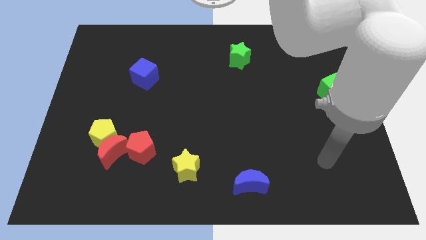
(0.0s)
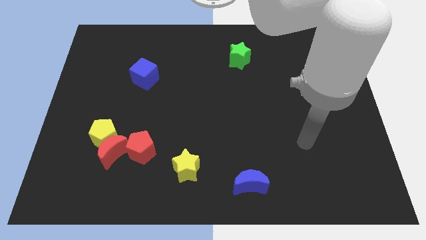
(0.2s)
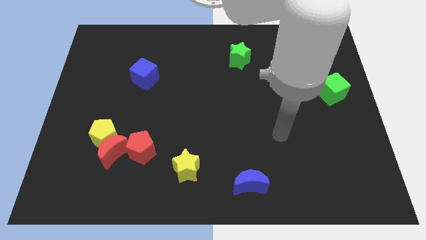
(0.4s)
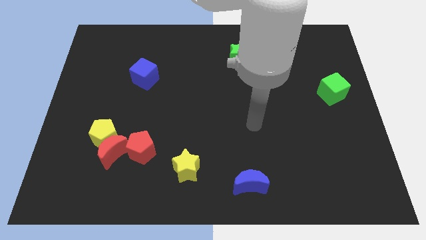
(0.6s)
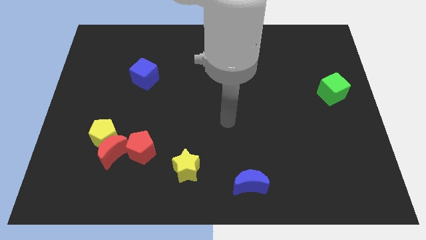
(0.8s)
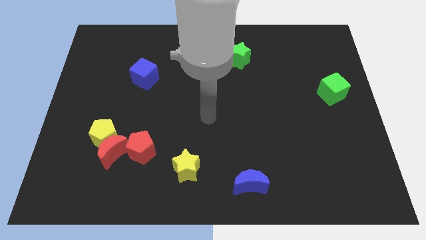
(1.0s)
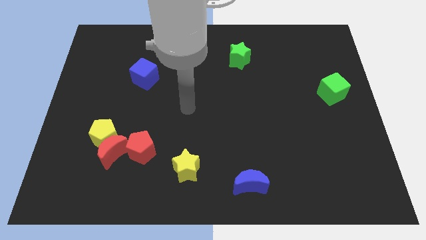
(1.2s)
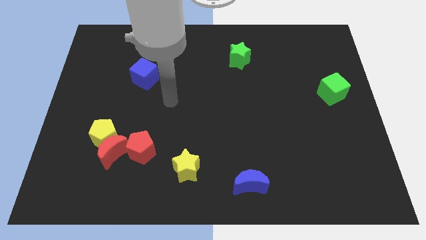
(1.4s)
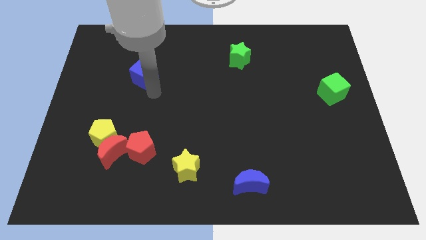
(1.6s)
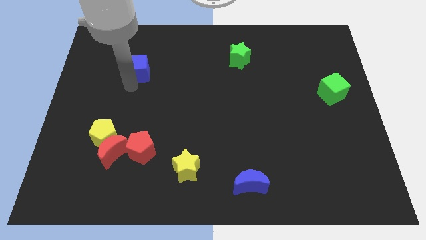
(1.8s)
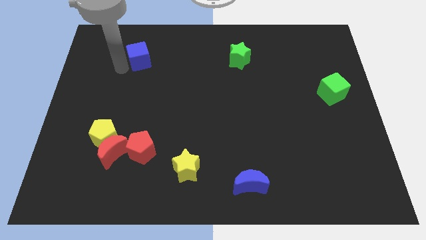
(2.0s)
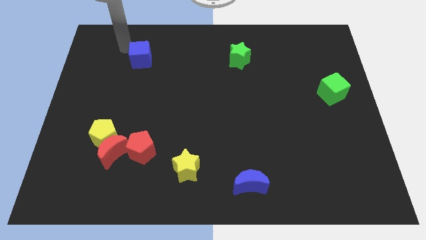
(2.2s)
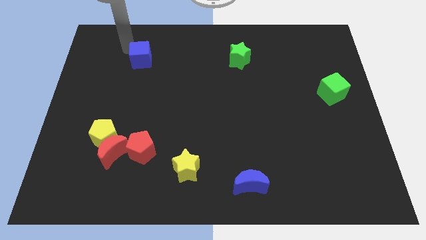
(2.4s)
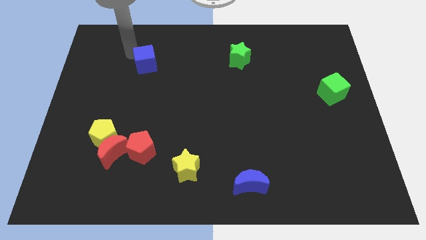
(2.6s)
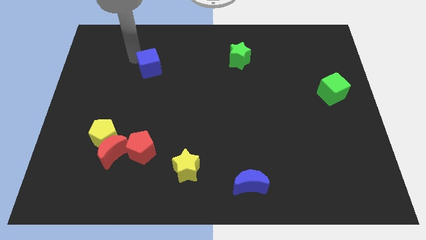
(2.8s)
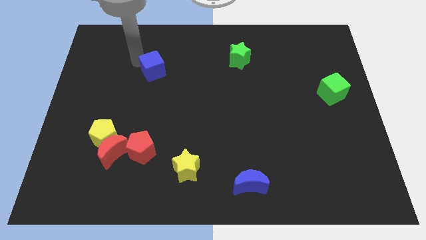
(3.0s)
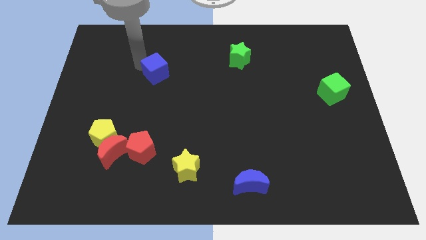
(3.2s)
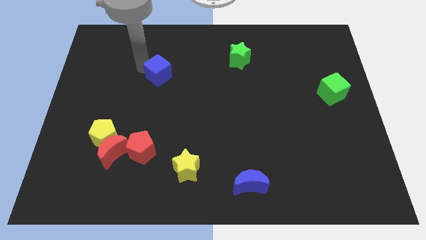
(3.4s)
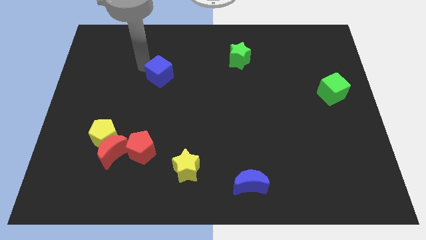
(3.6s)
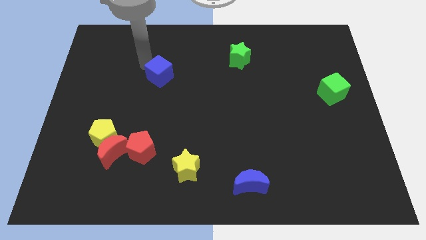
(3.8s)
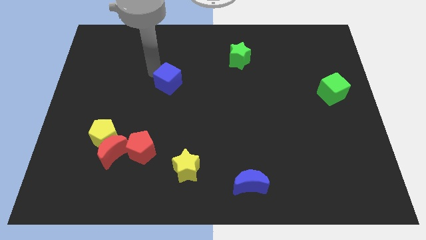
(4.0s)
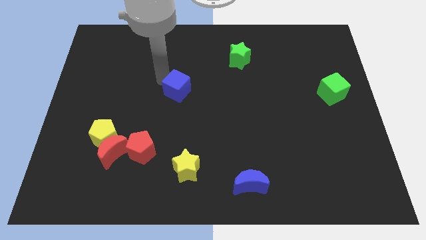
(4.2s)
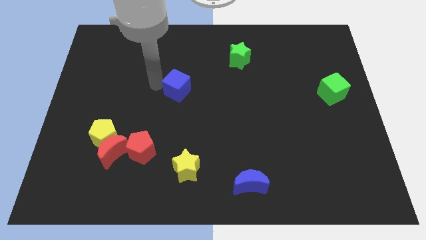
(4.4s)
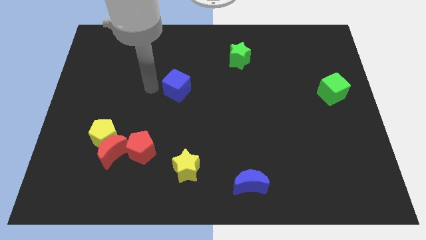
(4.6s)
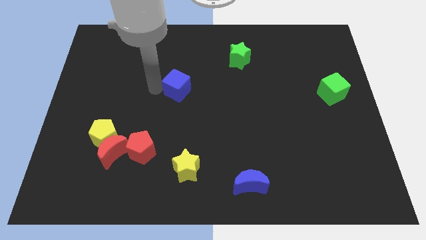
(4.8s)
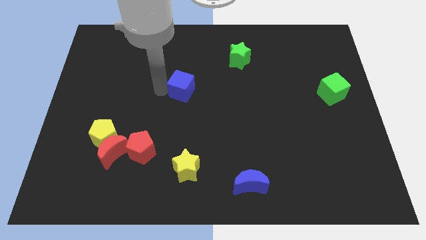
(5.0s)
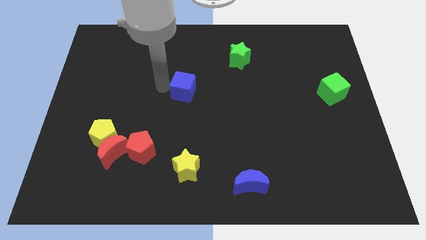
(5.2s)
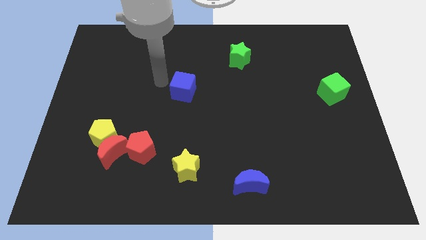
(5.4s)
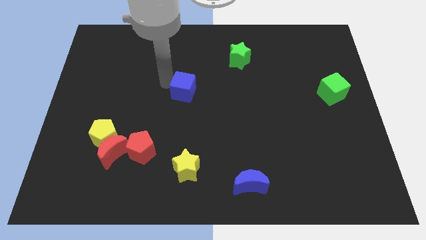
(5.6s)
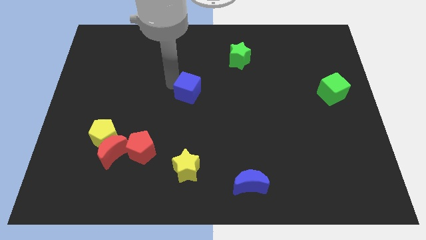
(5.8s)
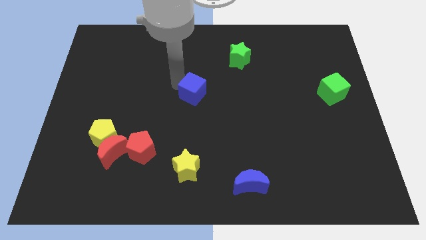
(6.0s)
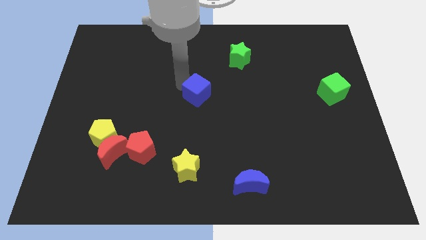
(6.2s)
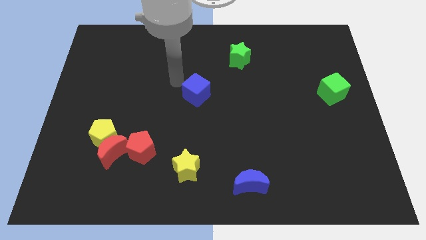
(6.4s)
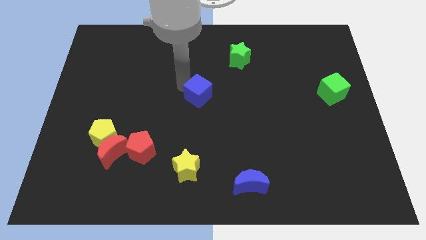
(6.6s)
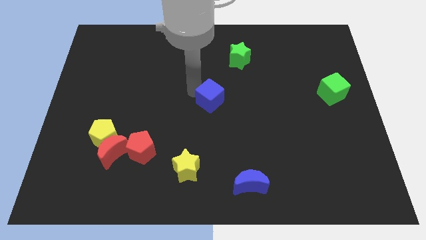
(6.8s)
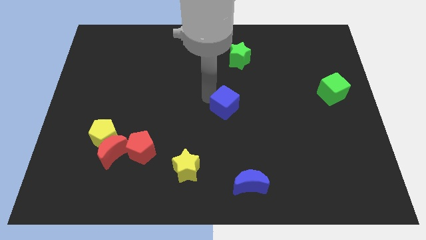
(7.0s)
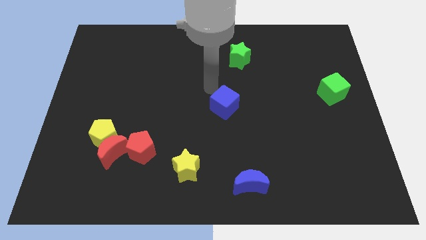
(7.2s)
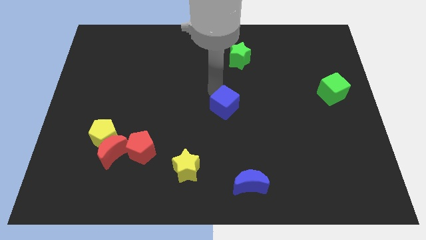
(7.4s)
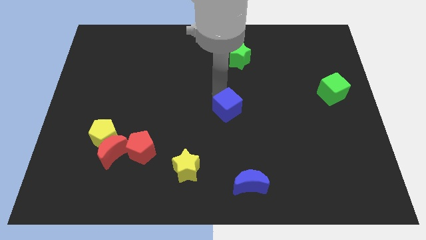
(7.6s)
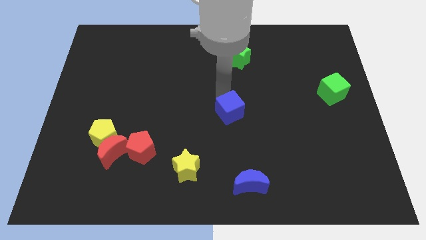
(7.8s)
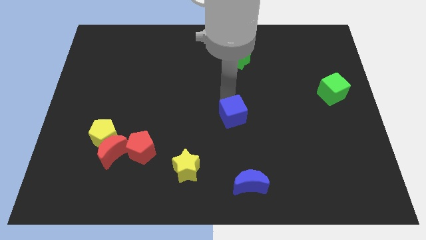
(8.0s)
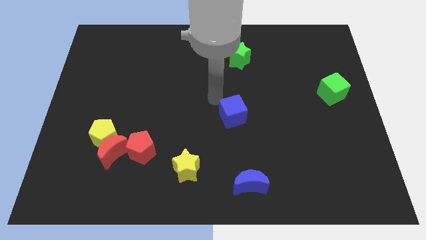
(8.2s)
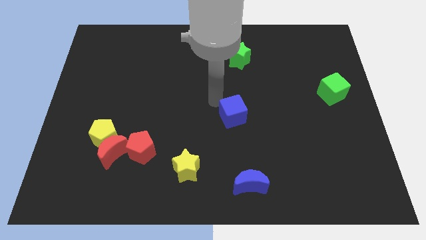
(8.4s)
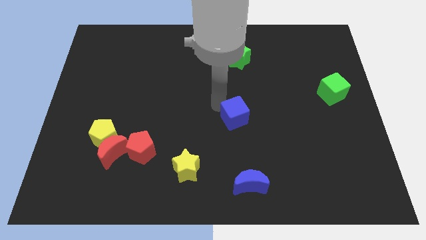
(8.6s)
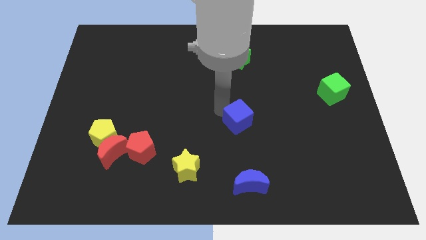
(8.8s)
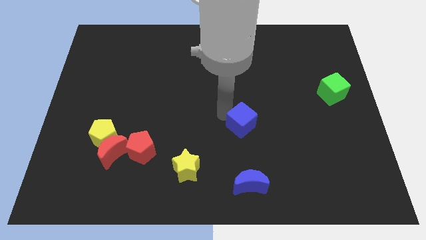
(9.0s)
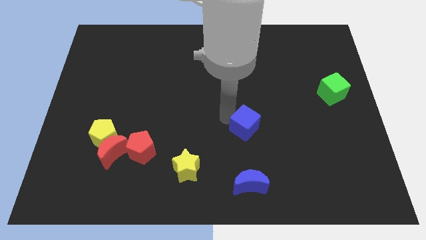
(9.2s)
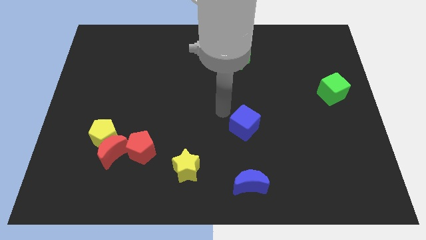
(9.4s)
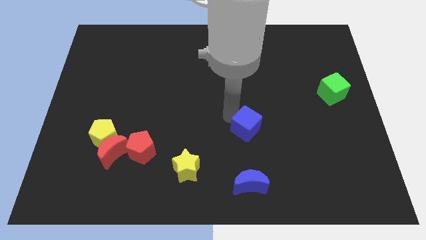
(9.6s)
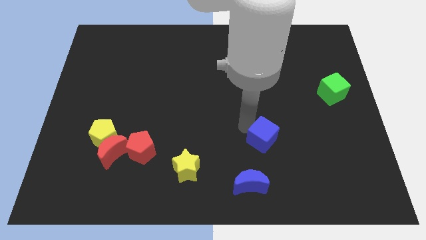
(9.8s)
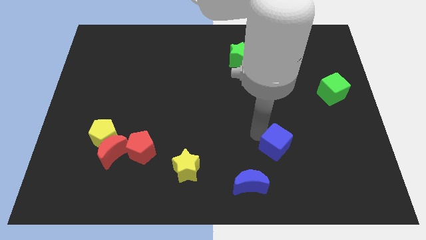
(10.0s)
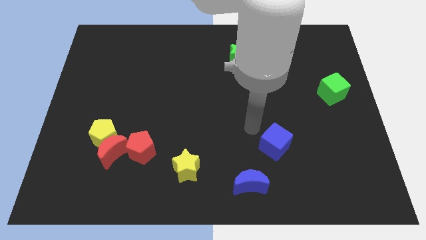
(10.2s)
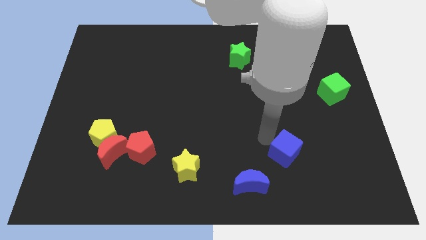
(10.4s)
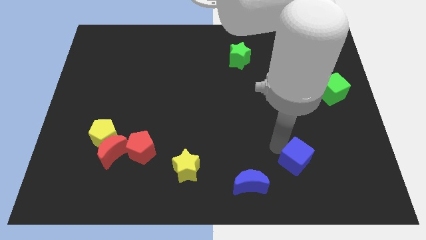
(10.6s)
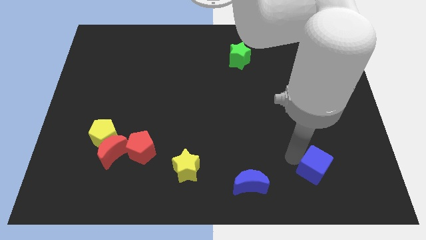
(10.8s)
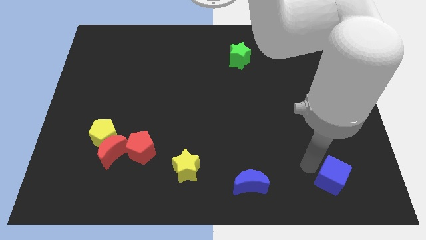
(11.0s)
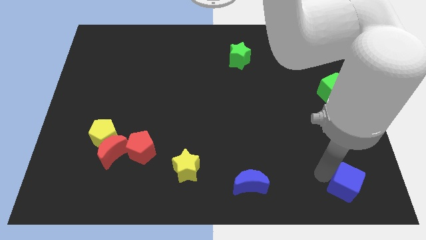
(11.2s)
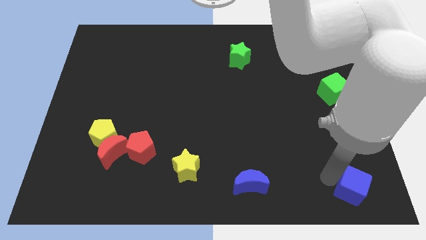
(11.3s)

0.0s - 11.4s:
put the blue cube to the bottom right of the board
